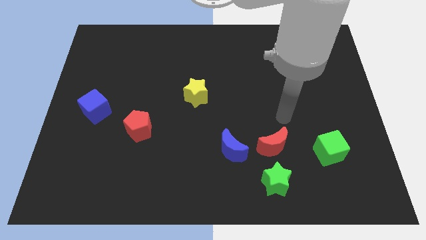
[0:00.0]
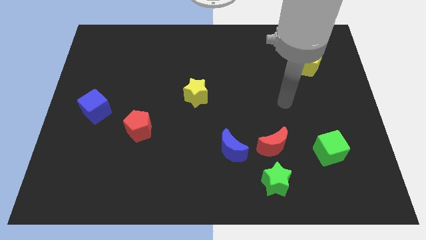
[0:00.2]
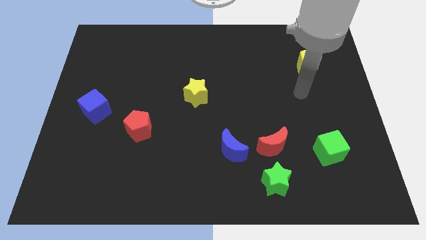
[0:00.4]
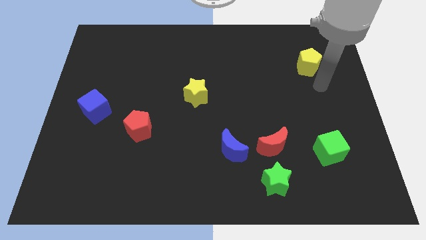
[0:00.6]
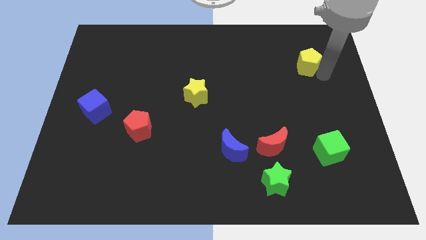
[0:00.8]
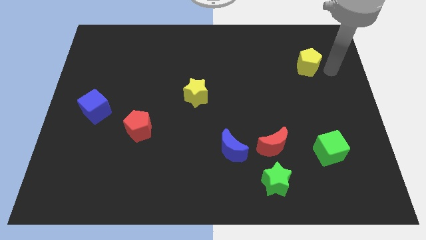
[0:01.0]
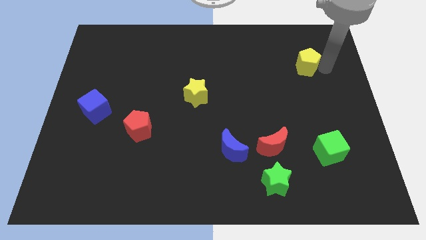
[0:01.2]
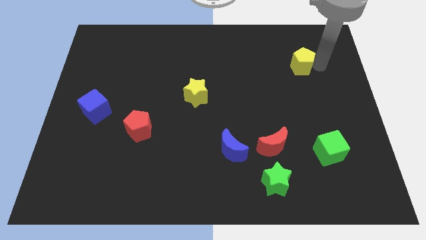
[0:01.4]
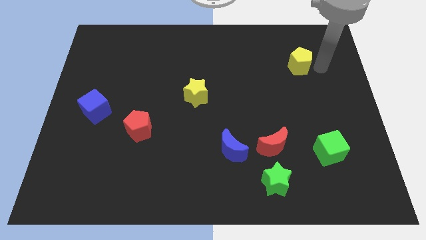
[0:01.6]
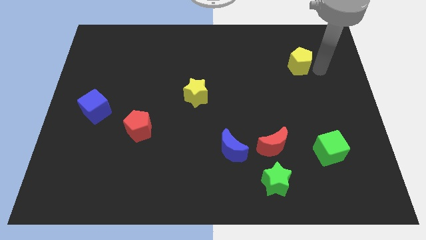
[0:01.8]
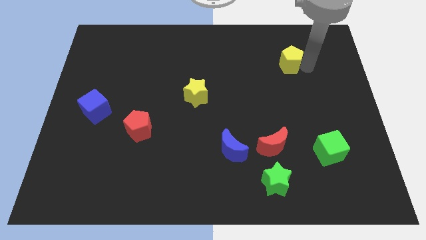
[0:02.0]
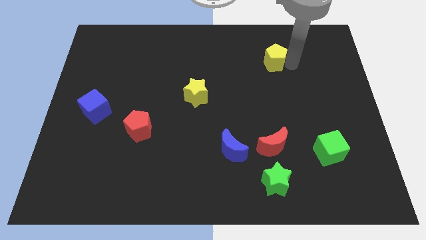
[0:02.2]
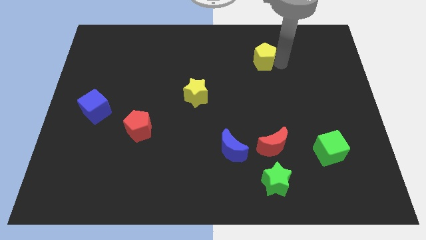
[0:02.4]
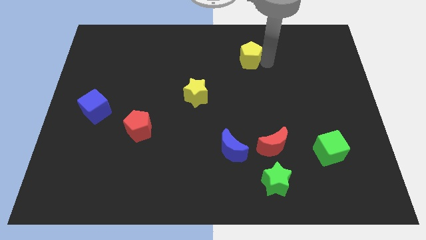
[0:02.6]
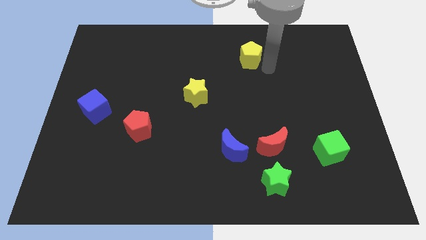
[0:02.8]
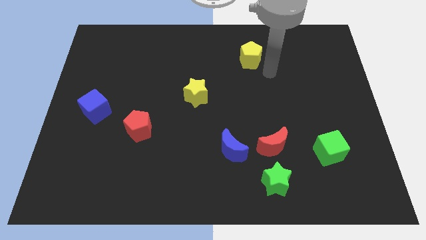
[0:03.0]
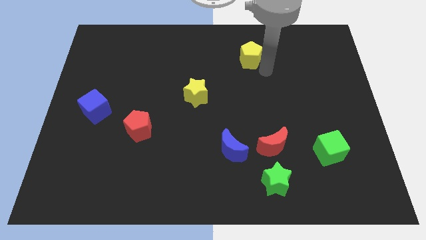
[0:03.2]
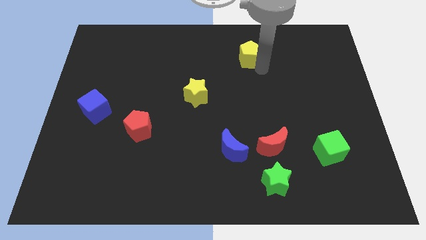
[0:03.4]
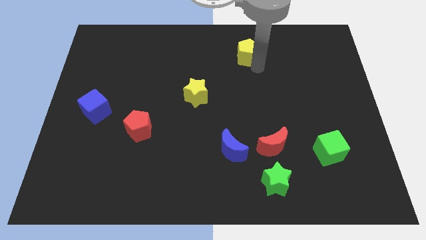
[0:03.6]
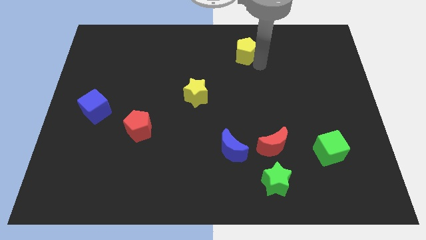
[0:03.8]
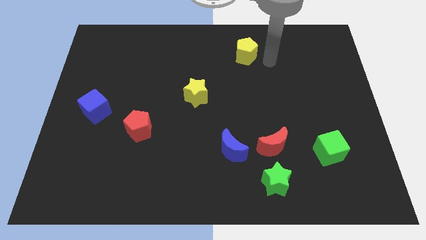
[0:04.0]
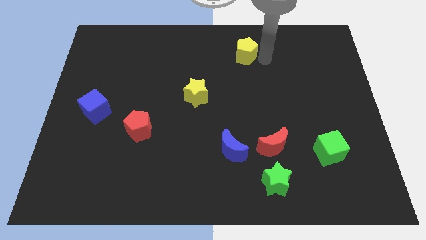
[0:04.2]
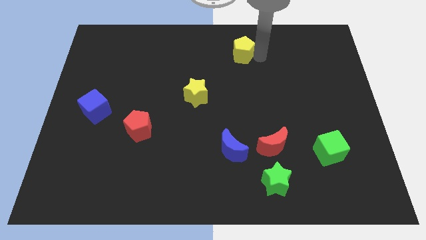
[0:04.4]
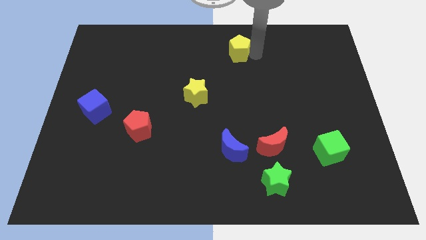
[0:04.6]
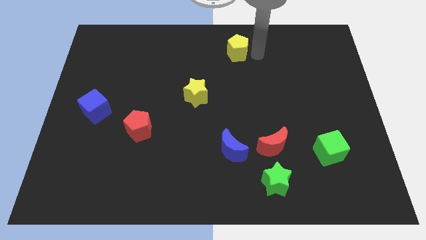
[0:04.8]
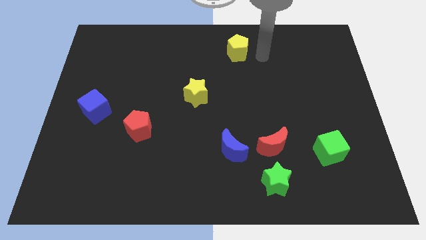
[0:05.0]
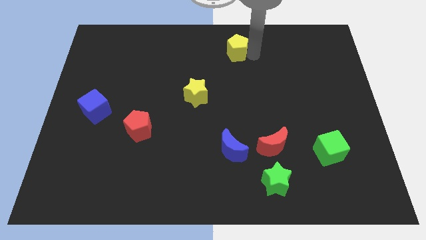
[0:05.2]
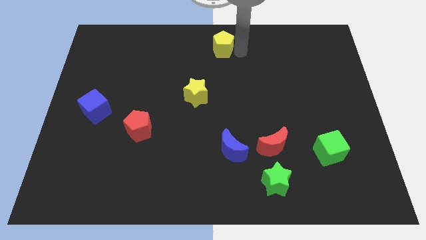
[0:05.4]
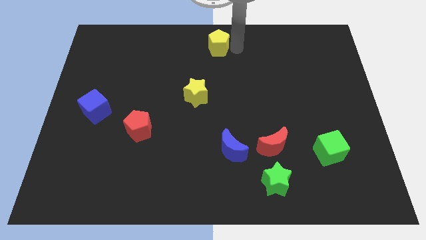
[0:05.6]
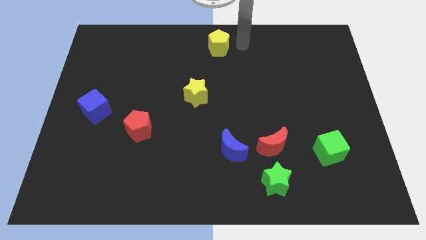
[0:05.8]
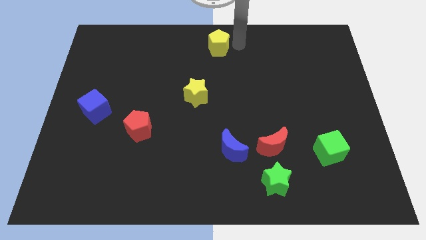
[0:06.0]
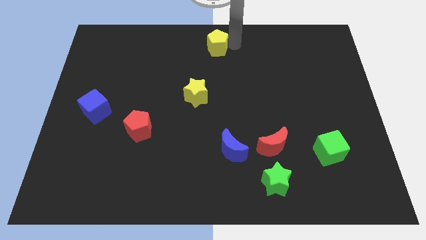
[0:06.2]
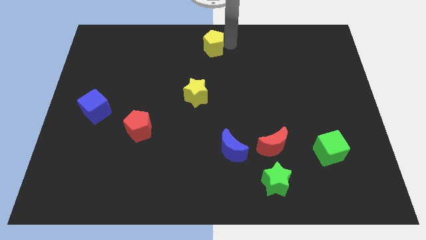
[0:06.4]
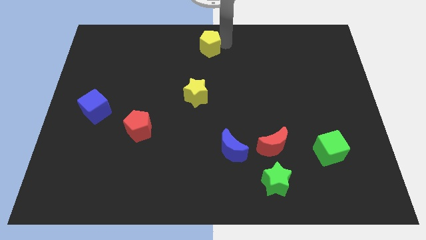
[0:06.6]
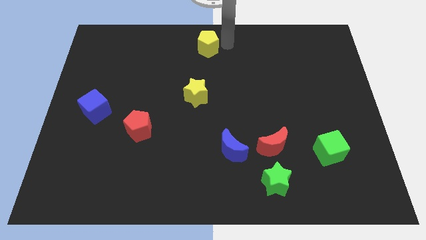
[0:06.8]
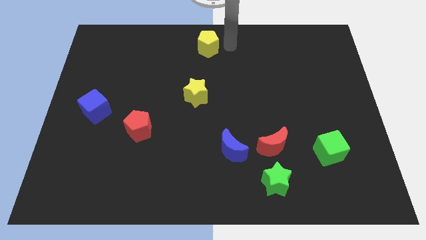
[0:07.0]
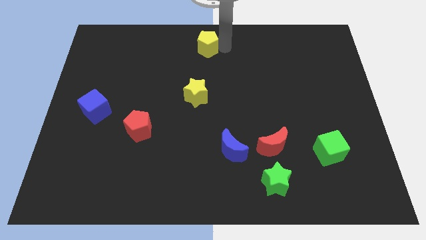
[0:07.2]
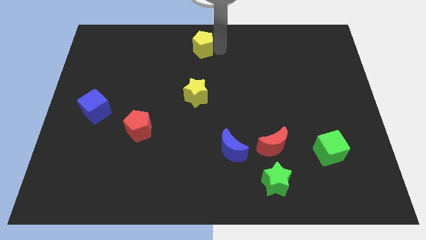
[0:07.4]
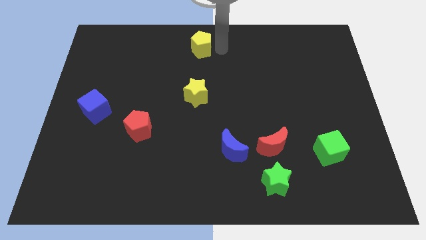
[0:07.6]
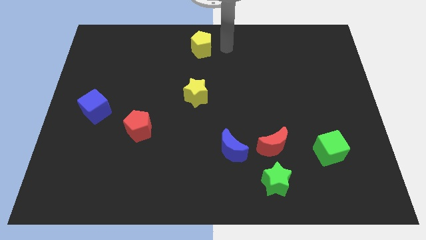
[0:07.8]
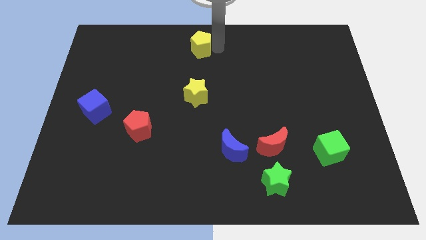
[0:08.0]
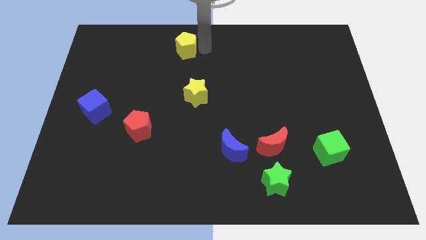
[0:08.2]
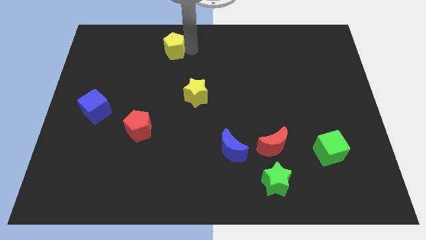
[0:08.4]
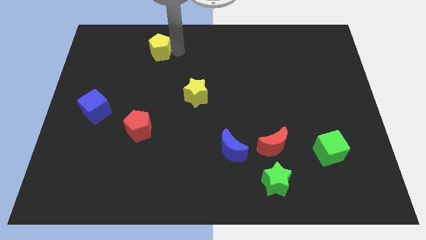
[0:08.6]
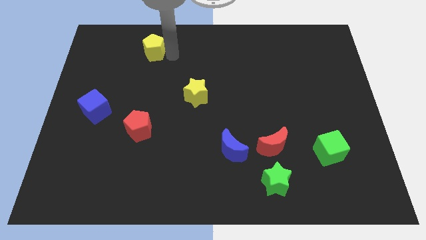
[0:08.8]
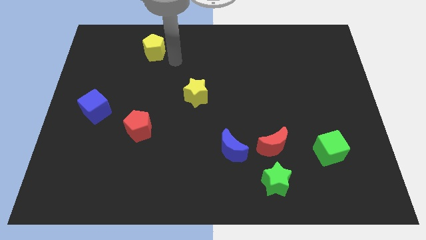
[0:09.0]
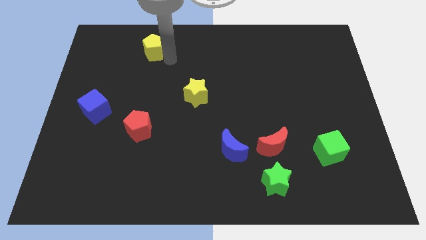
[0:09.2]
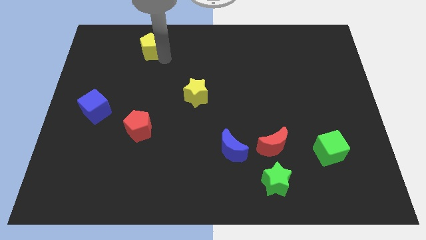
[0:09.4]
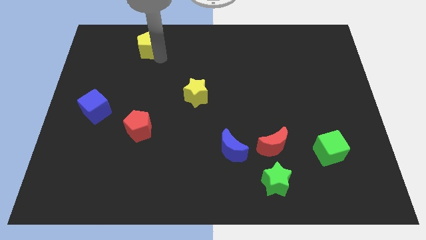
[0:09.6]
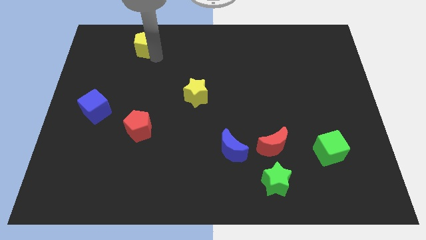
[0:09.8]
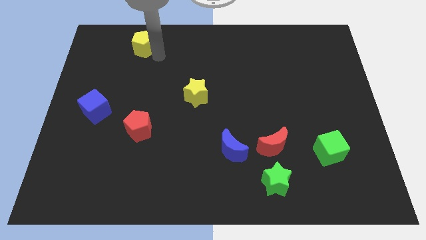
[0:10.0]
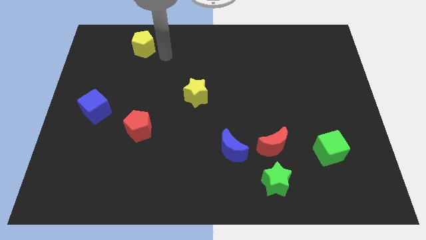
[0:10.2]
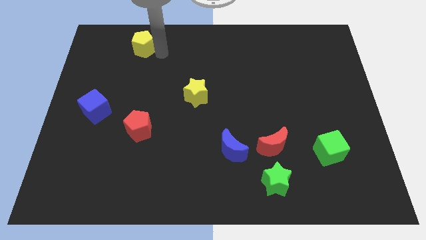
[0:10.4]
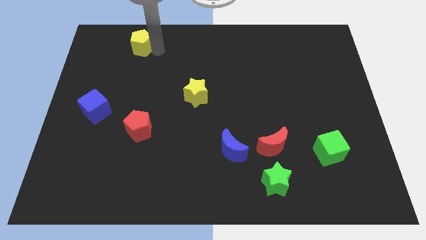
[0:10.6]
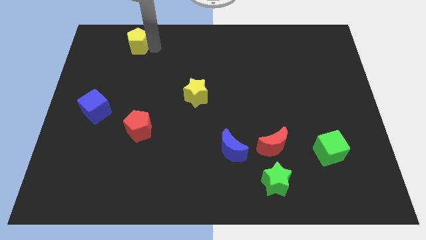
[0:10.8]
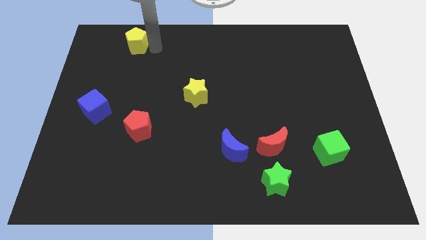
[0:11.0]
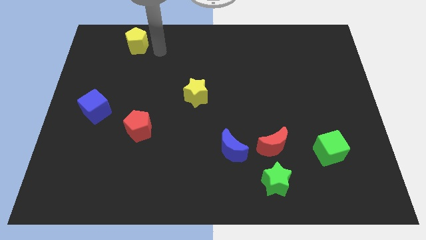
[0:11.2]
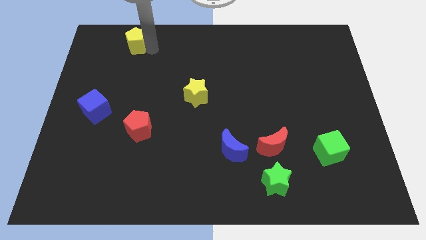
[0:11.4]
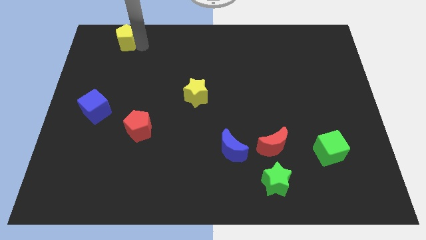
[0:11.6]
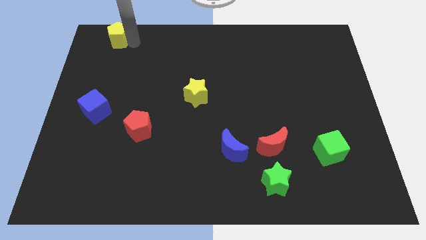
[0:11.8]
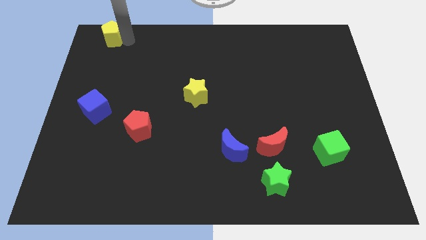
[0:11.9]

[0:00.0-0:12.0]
put the yellow pentagon to the top left of the board
